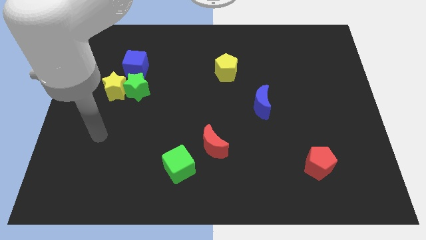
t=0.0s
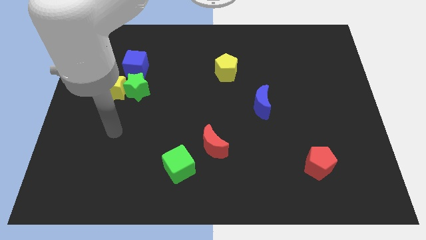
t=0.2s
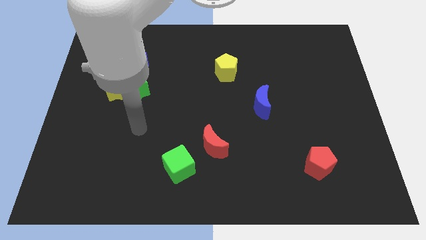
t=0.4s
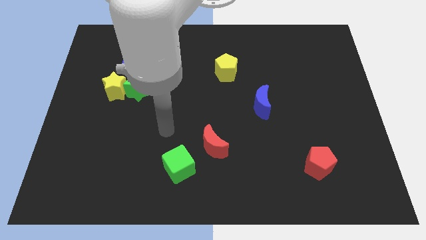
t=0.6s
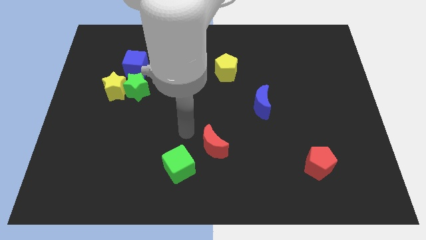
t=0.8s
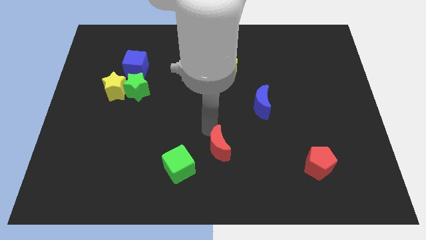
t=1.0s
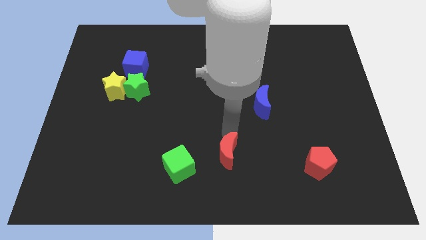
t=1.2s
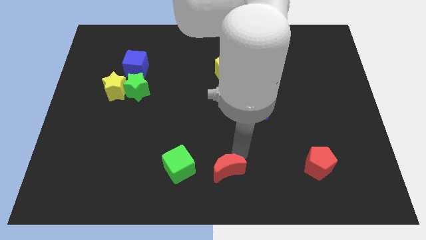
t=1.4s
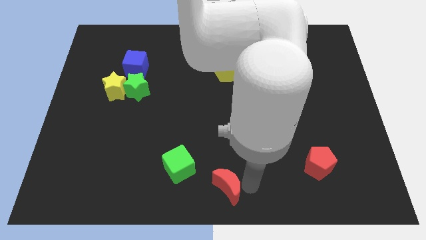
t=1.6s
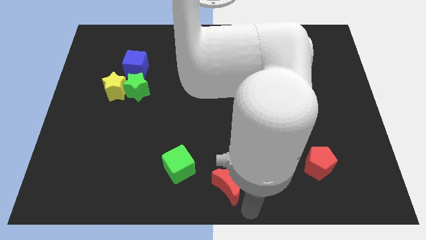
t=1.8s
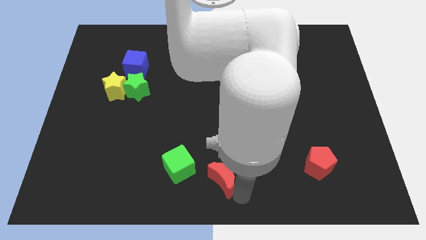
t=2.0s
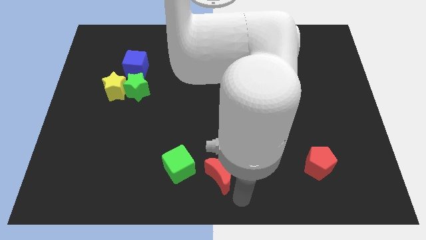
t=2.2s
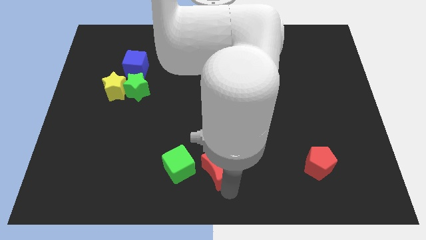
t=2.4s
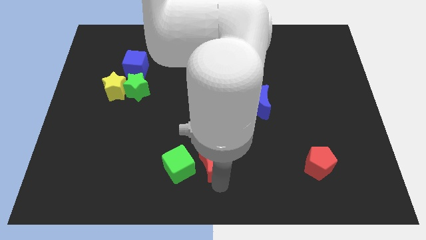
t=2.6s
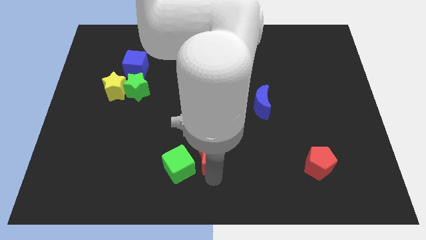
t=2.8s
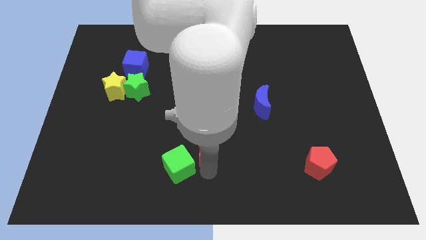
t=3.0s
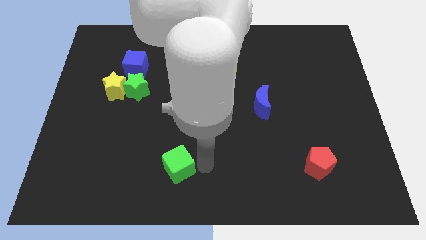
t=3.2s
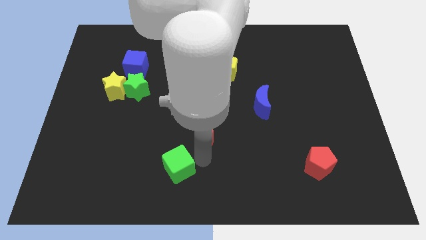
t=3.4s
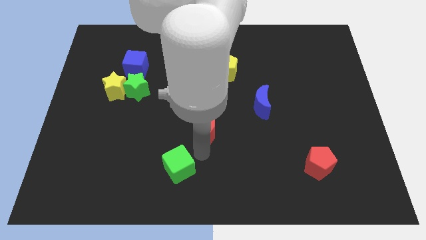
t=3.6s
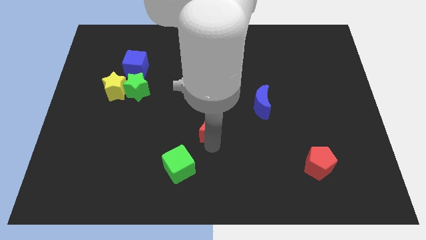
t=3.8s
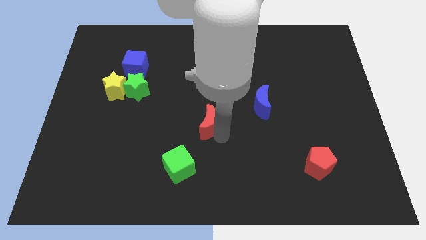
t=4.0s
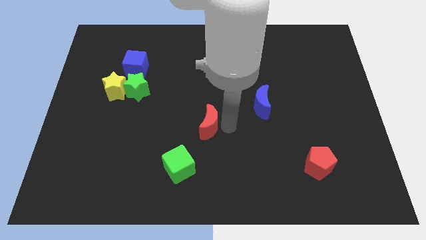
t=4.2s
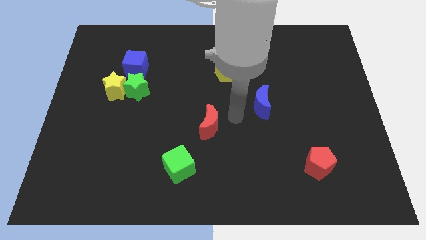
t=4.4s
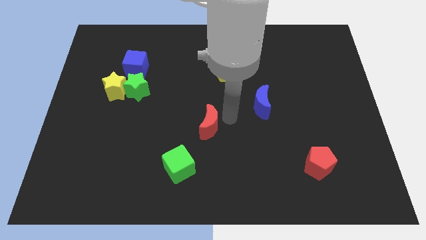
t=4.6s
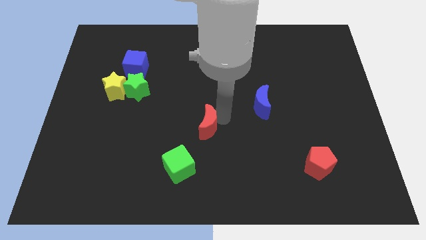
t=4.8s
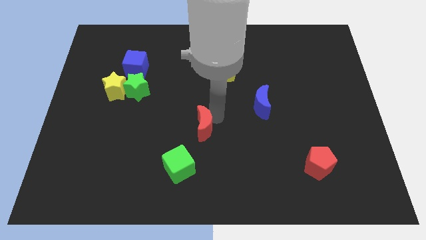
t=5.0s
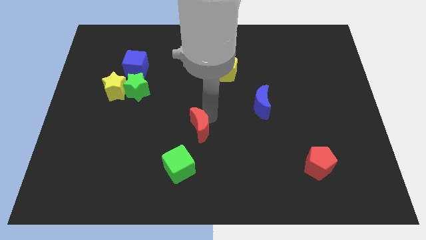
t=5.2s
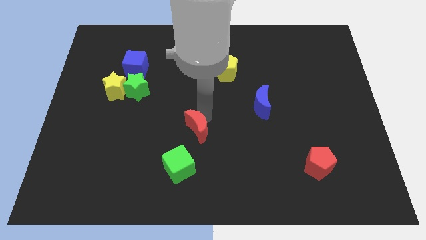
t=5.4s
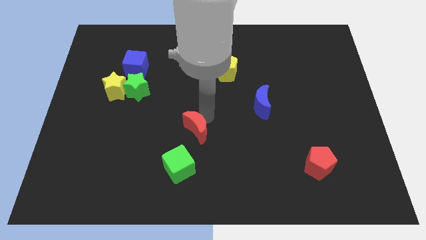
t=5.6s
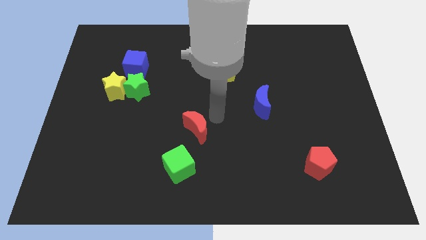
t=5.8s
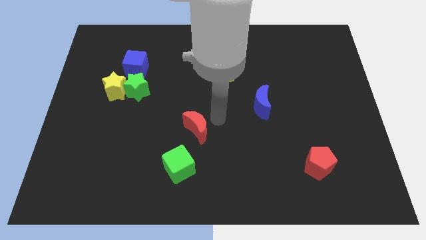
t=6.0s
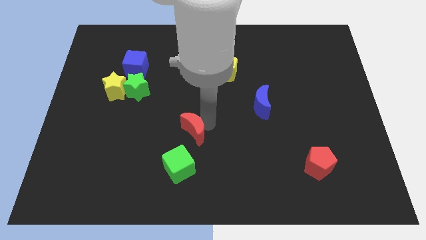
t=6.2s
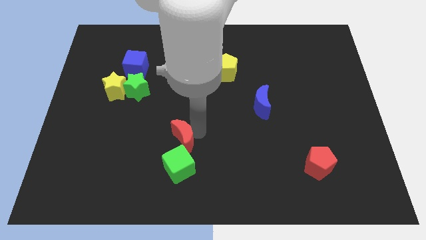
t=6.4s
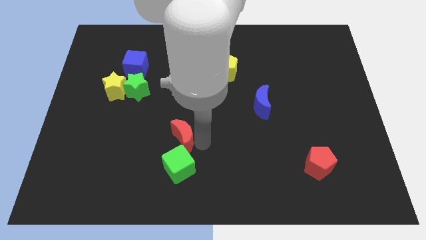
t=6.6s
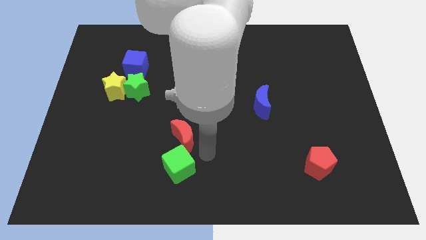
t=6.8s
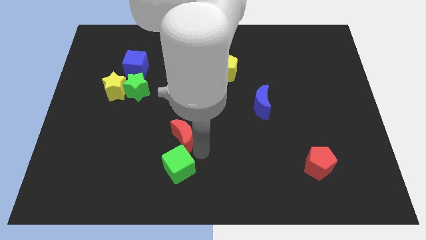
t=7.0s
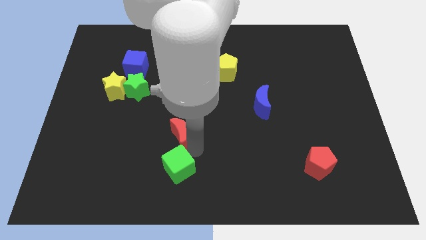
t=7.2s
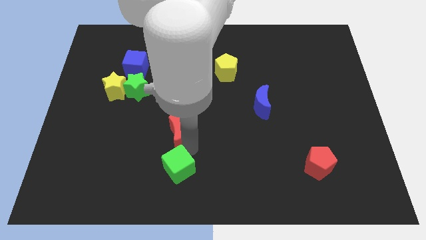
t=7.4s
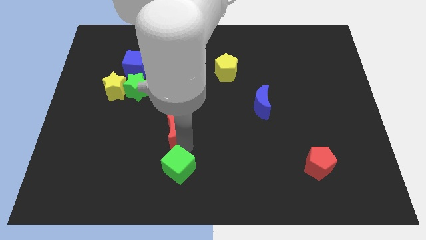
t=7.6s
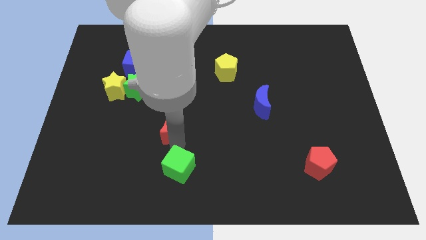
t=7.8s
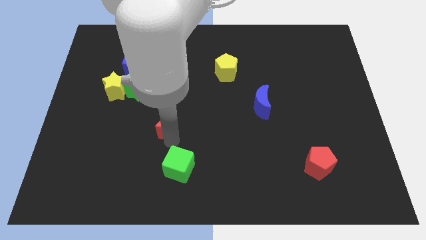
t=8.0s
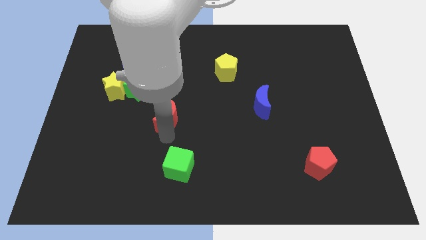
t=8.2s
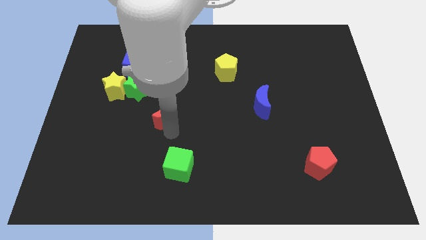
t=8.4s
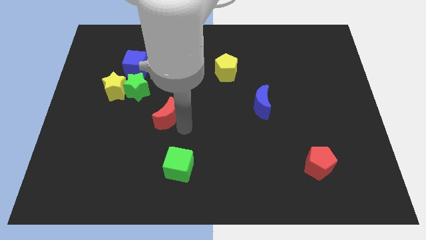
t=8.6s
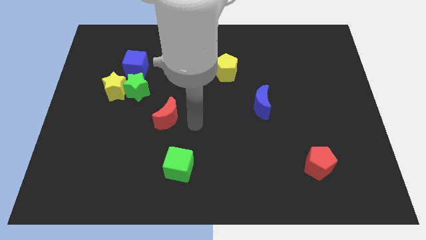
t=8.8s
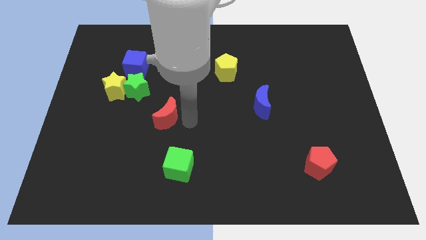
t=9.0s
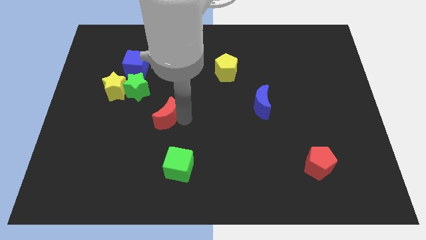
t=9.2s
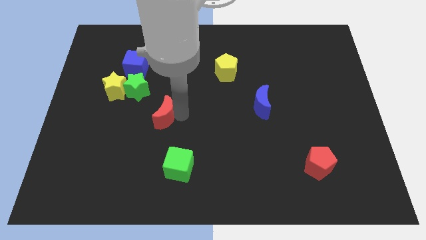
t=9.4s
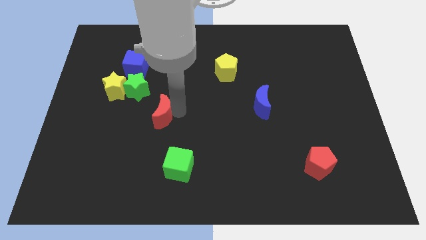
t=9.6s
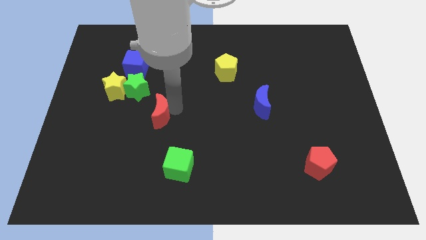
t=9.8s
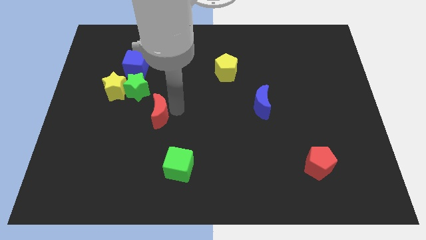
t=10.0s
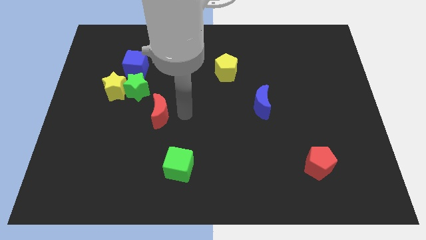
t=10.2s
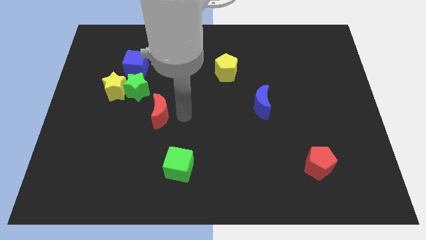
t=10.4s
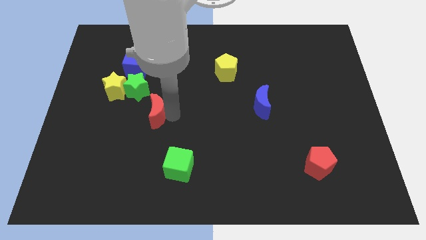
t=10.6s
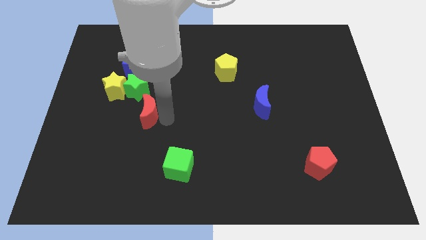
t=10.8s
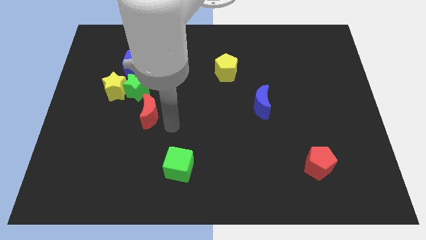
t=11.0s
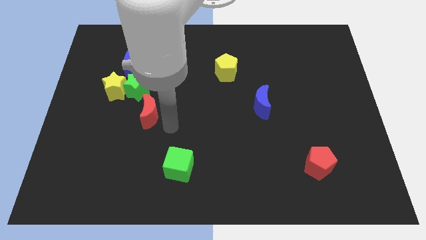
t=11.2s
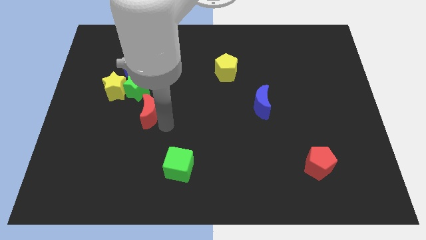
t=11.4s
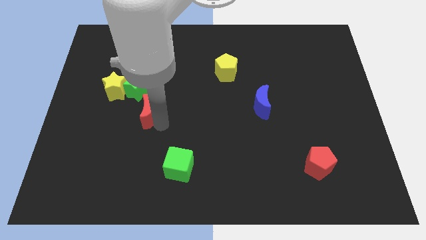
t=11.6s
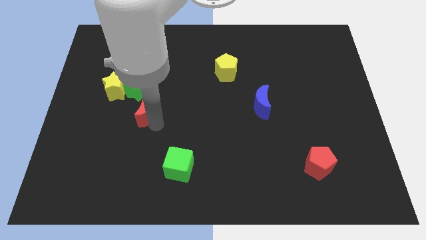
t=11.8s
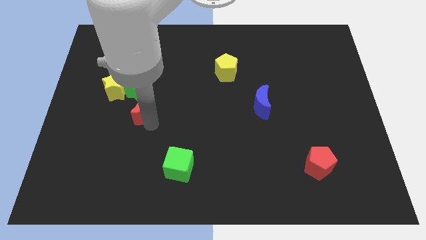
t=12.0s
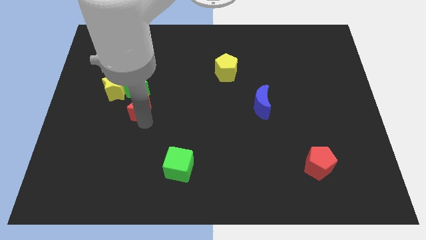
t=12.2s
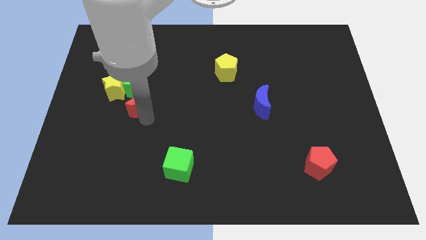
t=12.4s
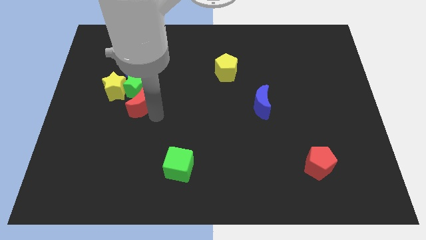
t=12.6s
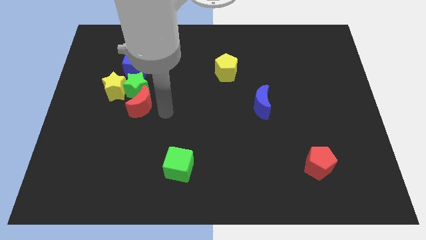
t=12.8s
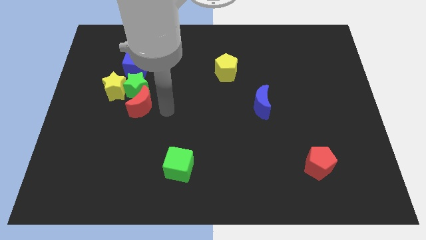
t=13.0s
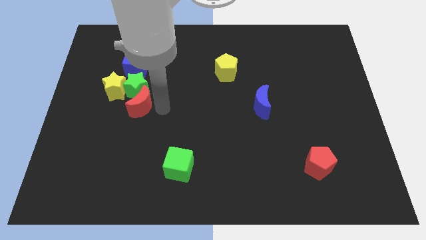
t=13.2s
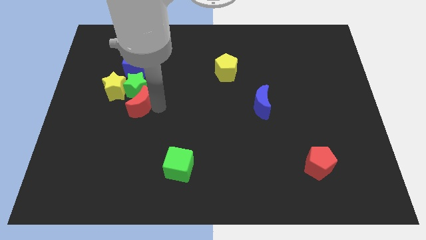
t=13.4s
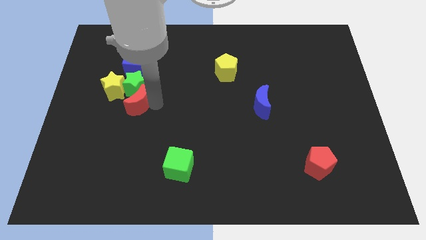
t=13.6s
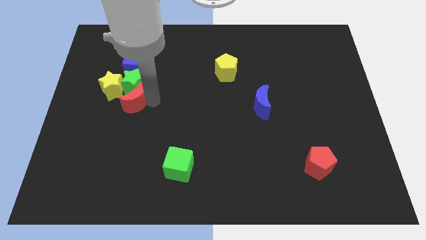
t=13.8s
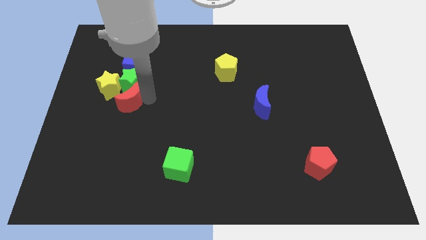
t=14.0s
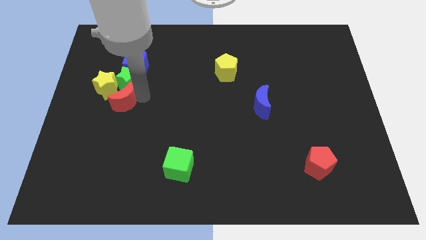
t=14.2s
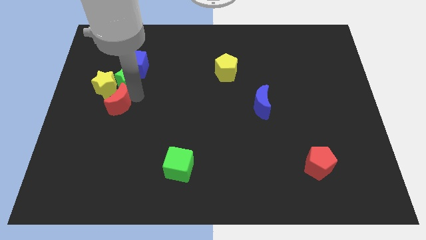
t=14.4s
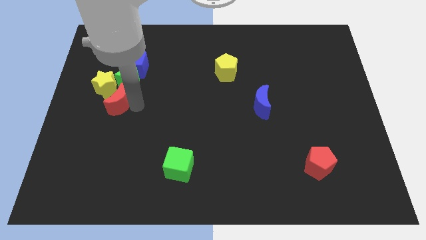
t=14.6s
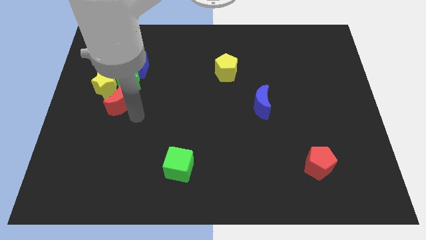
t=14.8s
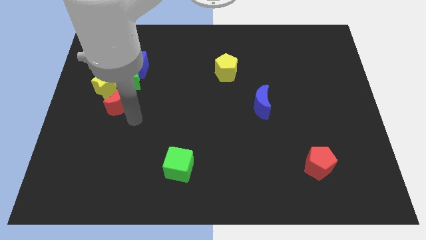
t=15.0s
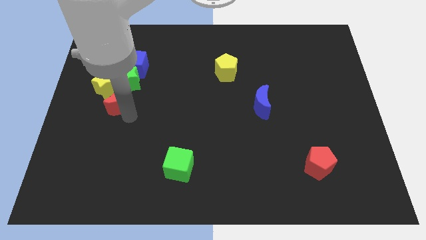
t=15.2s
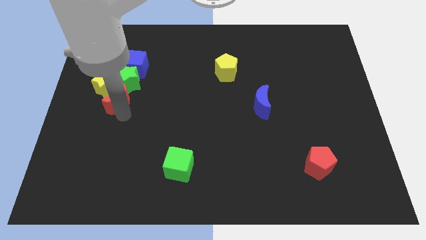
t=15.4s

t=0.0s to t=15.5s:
move the red moon to the yellow star
